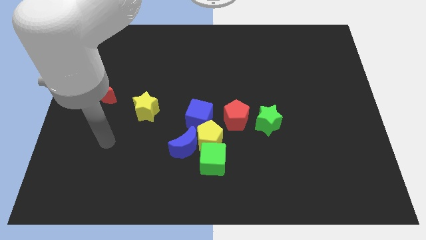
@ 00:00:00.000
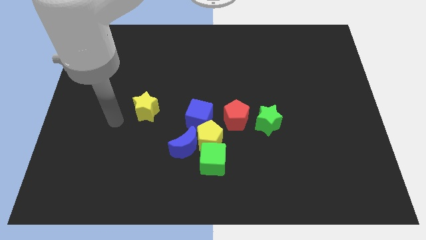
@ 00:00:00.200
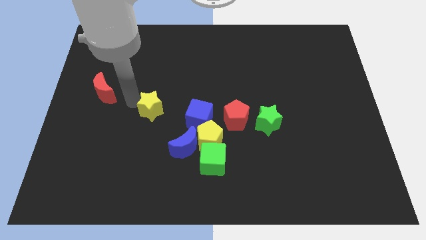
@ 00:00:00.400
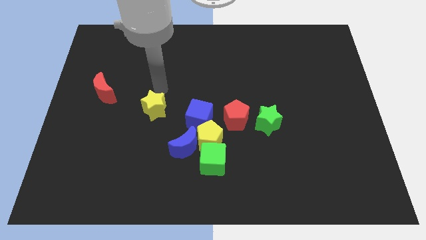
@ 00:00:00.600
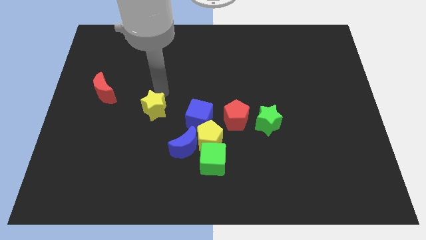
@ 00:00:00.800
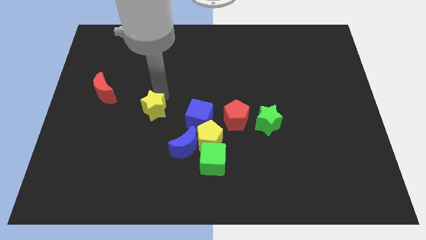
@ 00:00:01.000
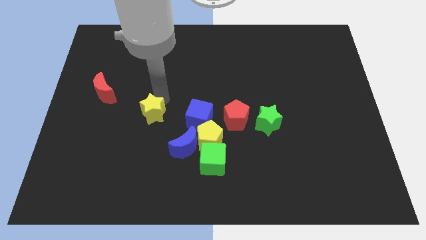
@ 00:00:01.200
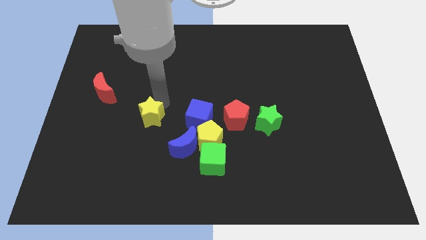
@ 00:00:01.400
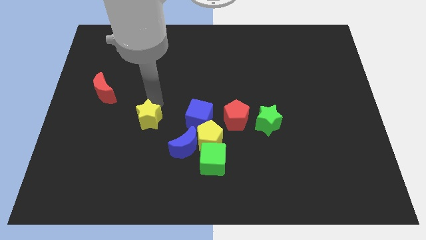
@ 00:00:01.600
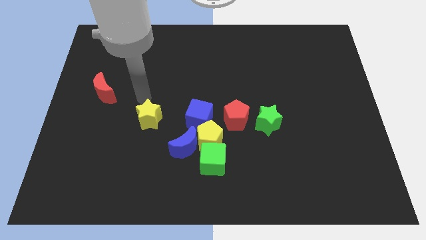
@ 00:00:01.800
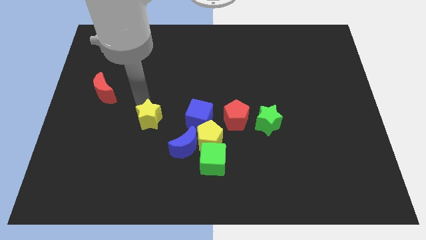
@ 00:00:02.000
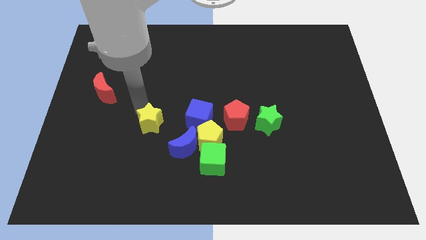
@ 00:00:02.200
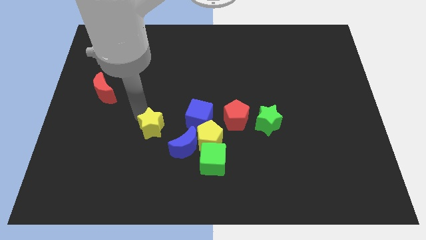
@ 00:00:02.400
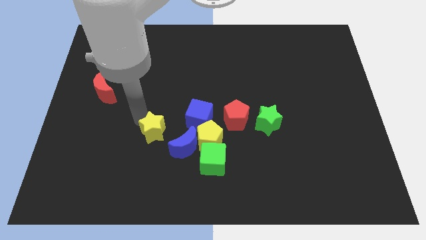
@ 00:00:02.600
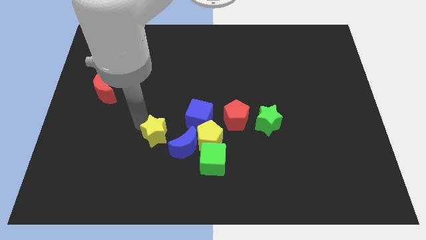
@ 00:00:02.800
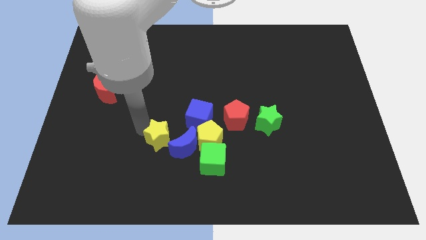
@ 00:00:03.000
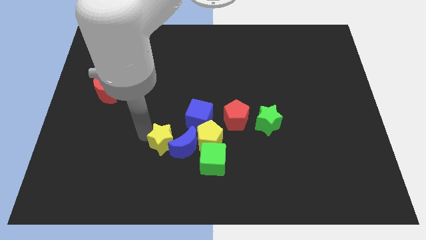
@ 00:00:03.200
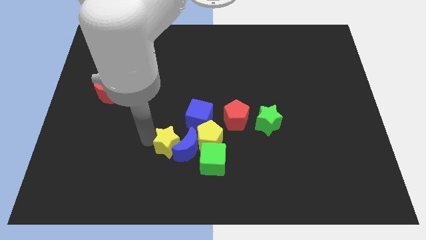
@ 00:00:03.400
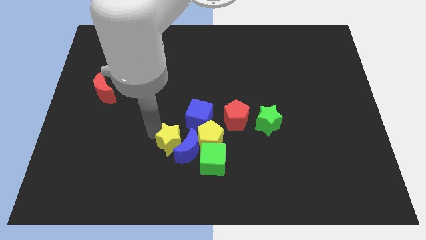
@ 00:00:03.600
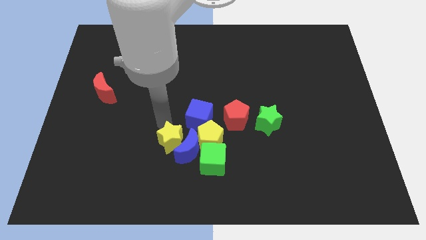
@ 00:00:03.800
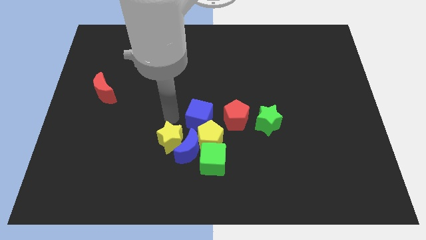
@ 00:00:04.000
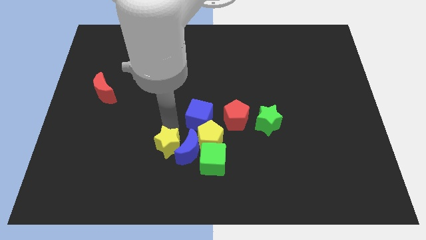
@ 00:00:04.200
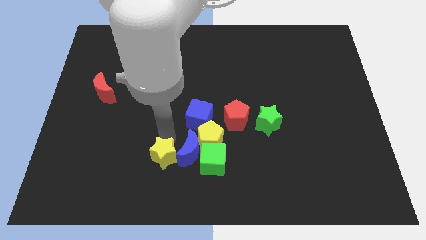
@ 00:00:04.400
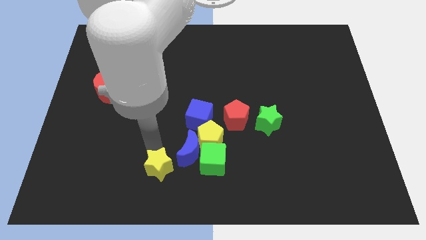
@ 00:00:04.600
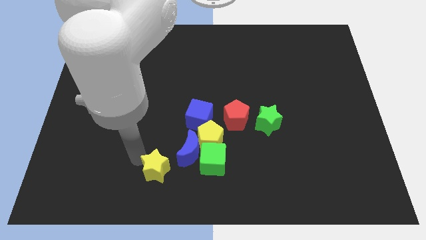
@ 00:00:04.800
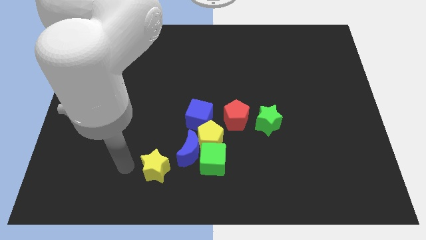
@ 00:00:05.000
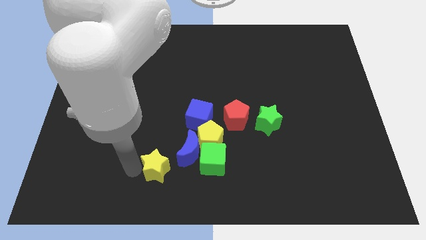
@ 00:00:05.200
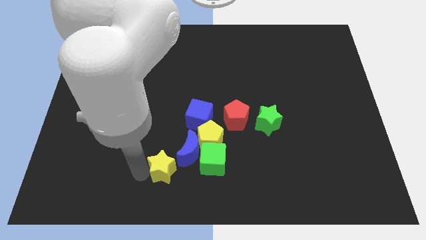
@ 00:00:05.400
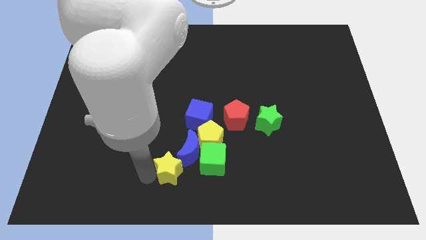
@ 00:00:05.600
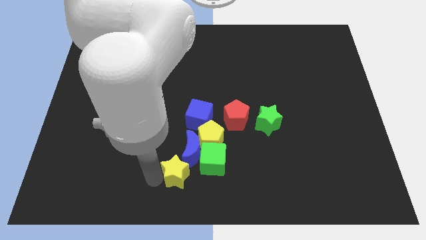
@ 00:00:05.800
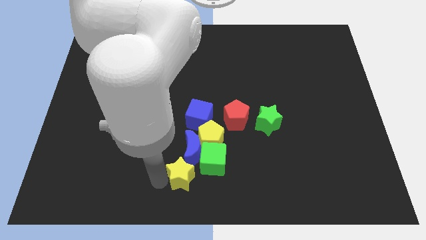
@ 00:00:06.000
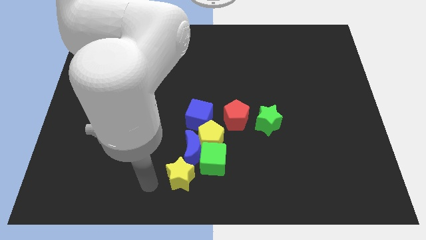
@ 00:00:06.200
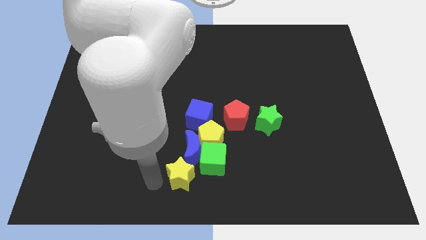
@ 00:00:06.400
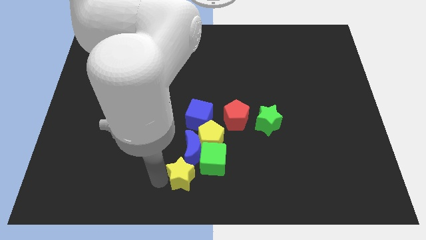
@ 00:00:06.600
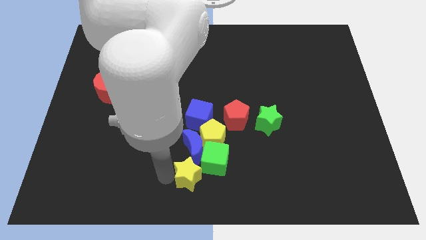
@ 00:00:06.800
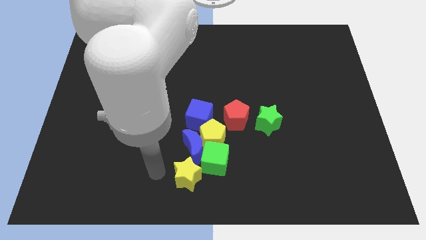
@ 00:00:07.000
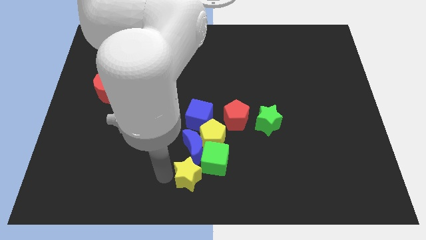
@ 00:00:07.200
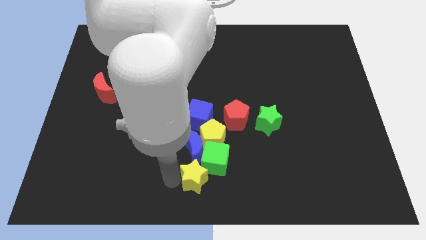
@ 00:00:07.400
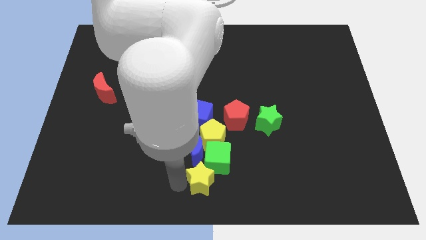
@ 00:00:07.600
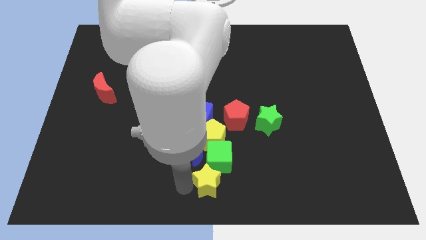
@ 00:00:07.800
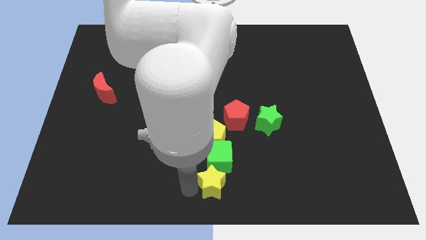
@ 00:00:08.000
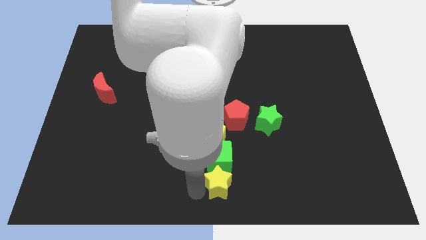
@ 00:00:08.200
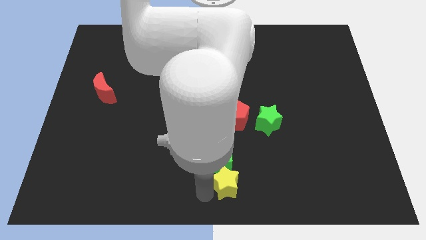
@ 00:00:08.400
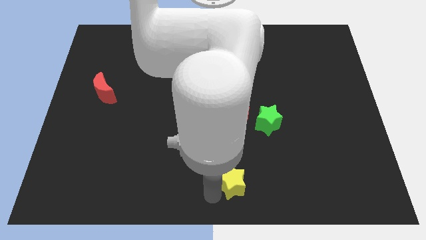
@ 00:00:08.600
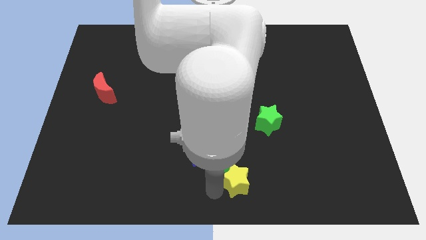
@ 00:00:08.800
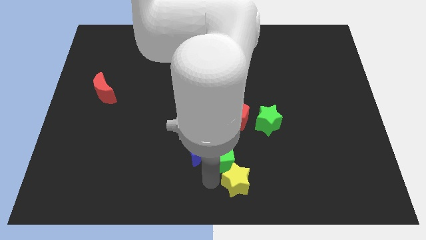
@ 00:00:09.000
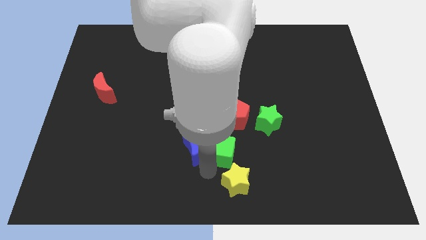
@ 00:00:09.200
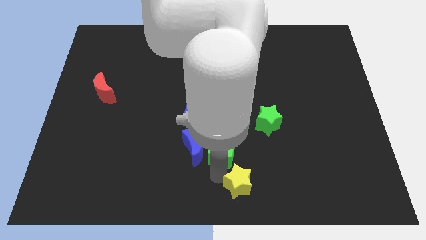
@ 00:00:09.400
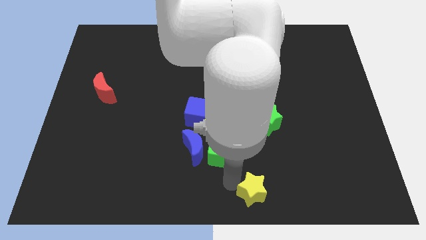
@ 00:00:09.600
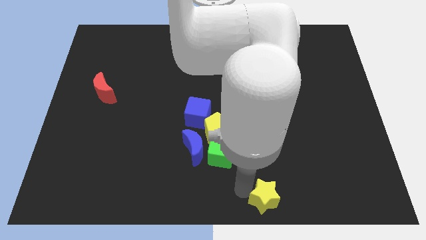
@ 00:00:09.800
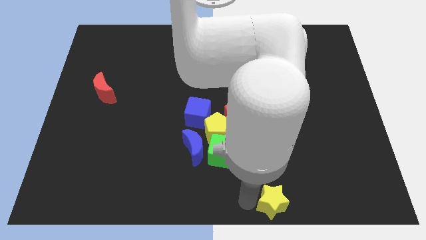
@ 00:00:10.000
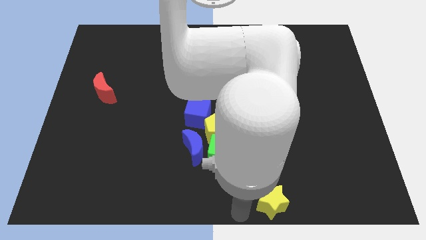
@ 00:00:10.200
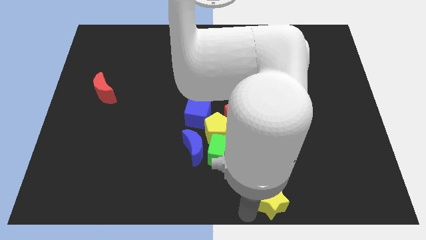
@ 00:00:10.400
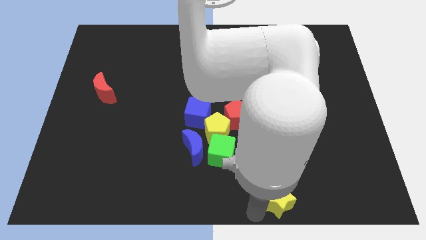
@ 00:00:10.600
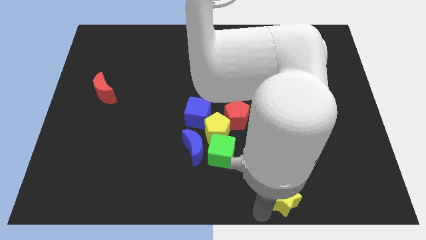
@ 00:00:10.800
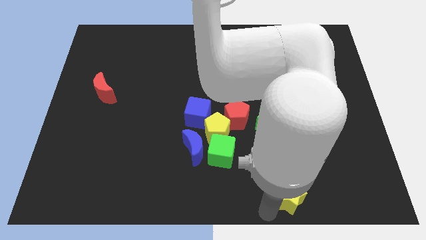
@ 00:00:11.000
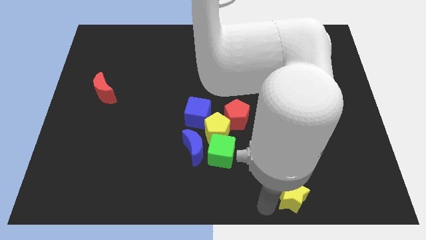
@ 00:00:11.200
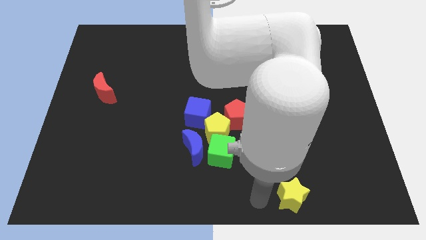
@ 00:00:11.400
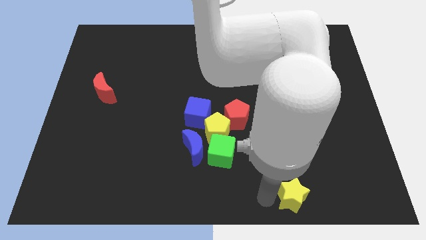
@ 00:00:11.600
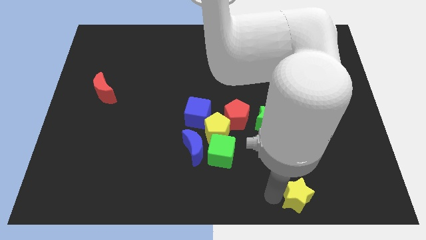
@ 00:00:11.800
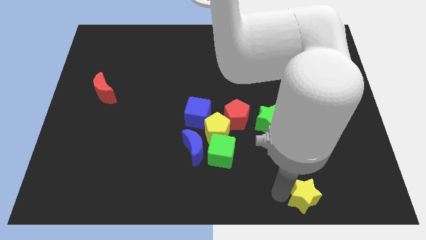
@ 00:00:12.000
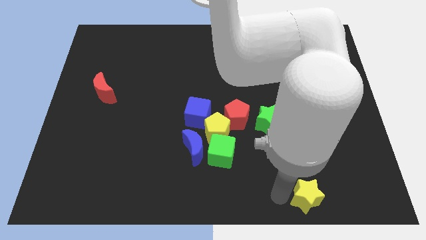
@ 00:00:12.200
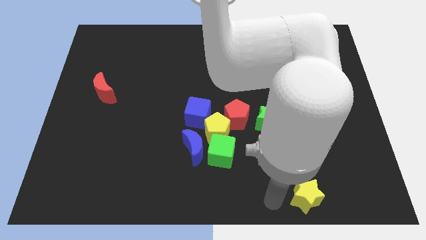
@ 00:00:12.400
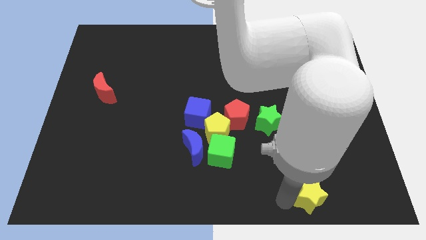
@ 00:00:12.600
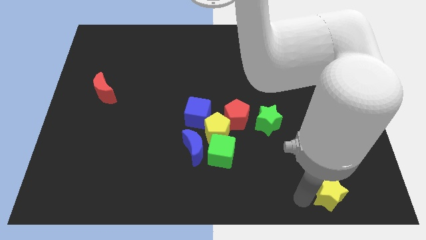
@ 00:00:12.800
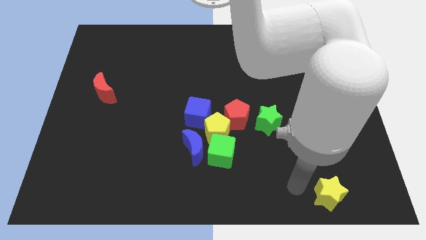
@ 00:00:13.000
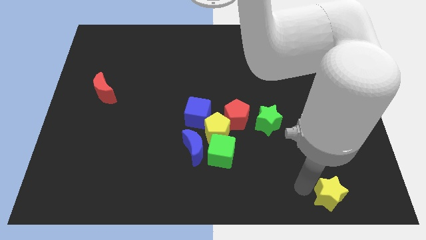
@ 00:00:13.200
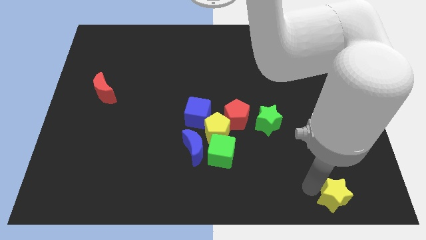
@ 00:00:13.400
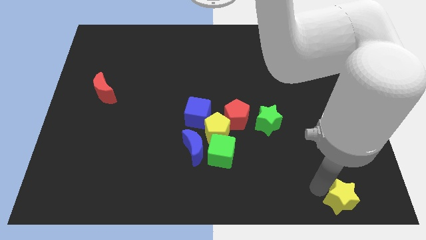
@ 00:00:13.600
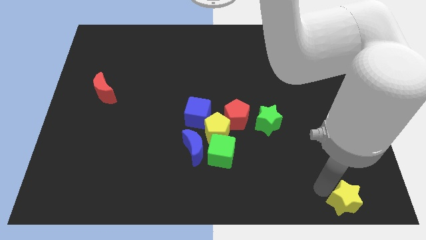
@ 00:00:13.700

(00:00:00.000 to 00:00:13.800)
move the yellow star to the lower right corner

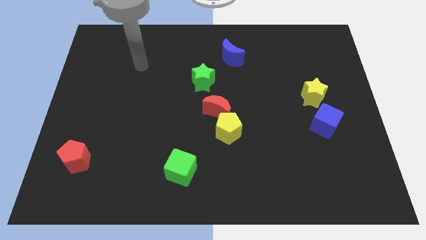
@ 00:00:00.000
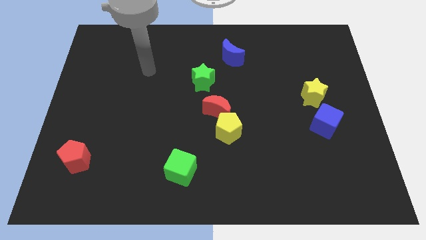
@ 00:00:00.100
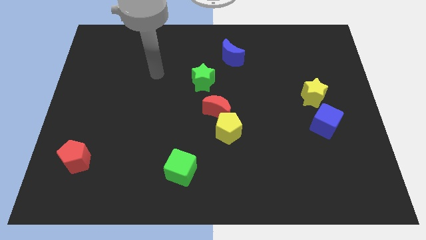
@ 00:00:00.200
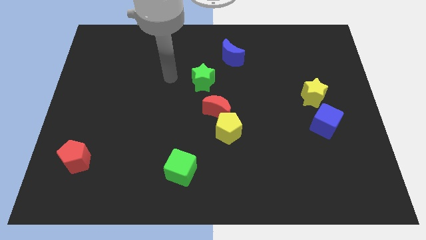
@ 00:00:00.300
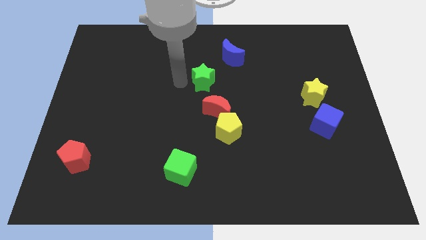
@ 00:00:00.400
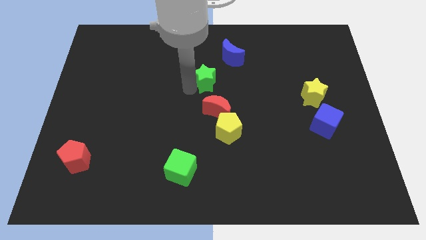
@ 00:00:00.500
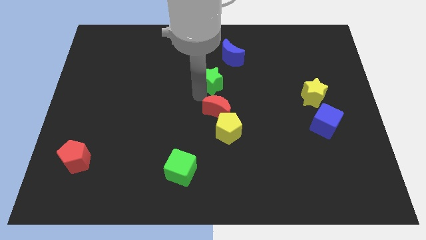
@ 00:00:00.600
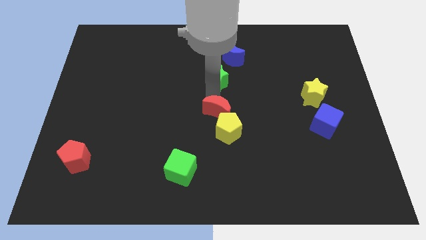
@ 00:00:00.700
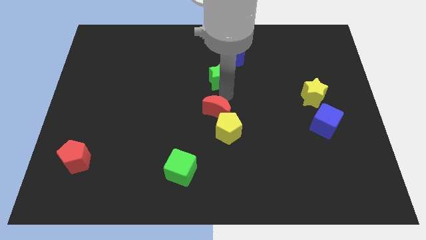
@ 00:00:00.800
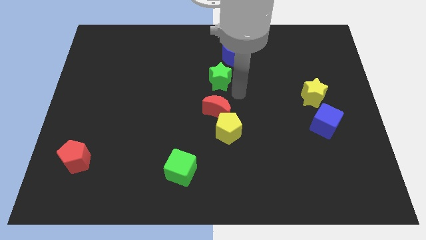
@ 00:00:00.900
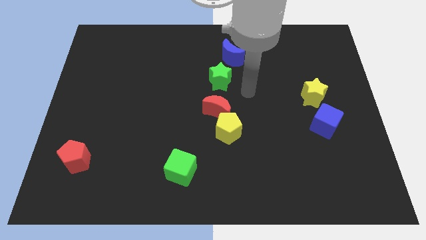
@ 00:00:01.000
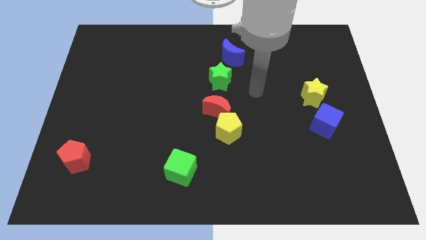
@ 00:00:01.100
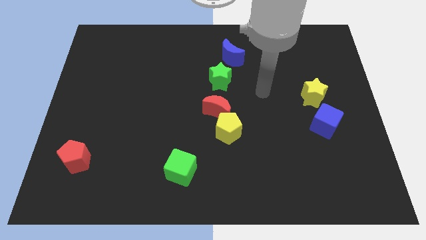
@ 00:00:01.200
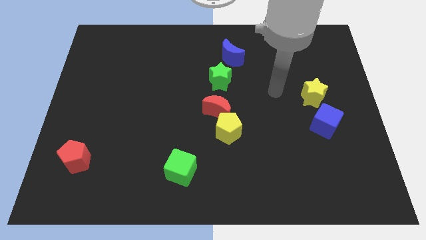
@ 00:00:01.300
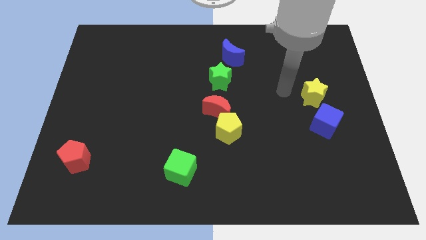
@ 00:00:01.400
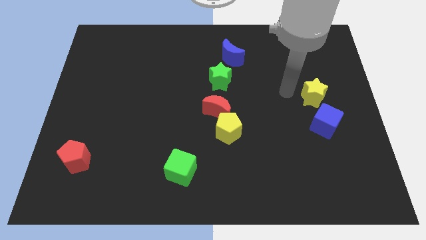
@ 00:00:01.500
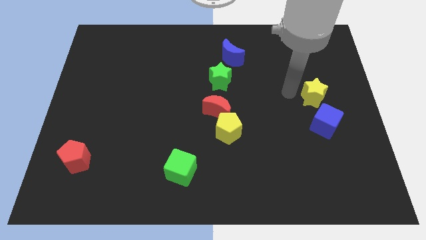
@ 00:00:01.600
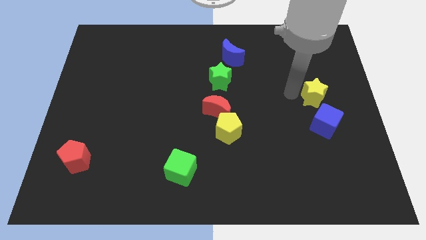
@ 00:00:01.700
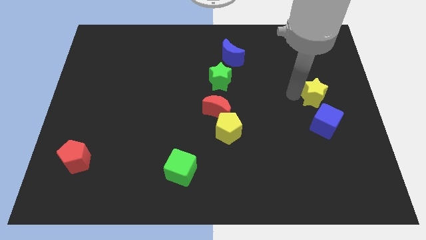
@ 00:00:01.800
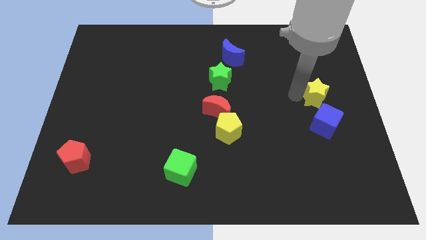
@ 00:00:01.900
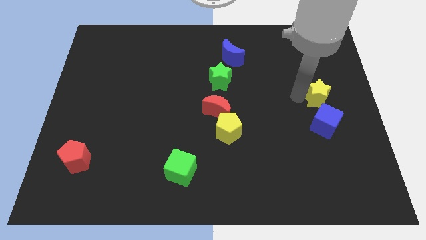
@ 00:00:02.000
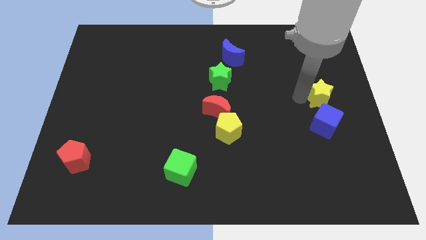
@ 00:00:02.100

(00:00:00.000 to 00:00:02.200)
push the yellow star to the center right
